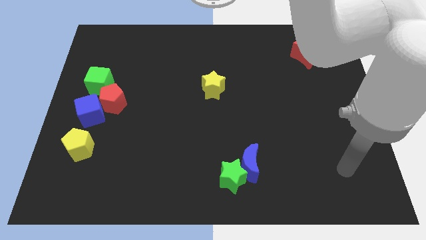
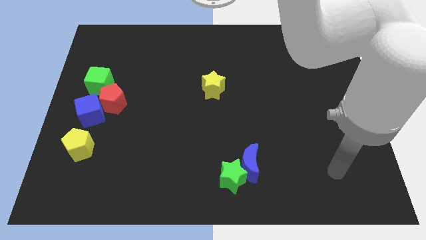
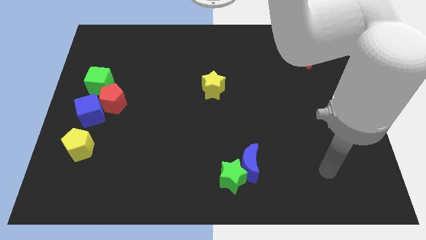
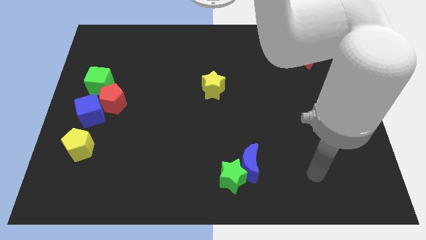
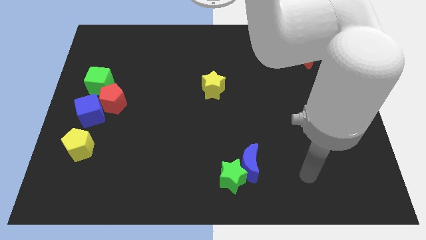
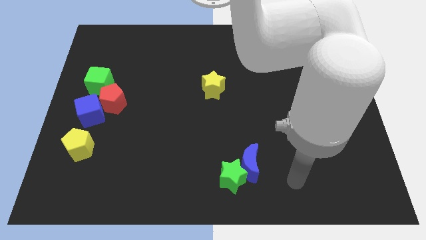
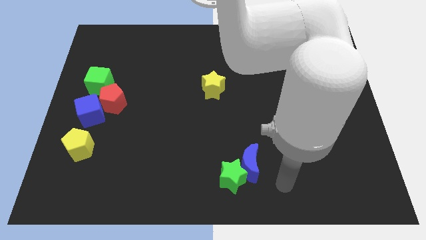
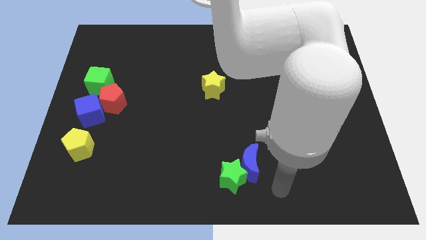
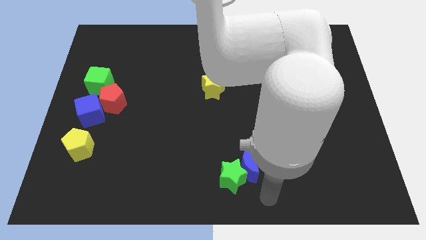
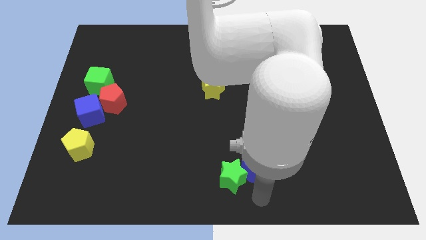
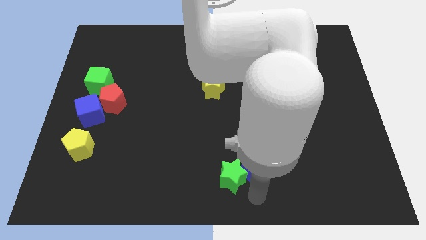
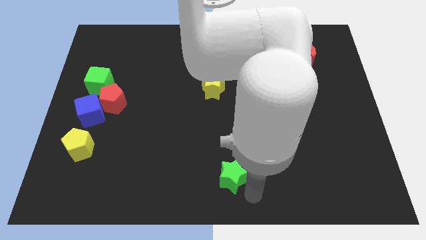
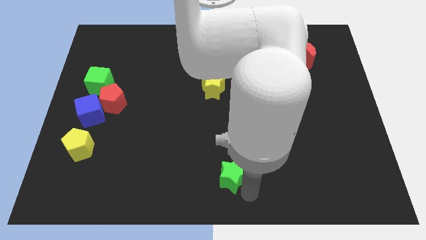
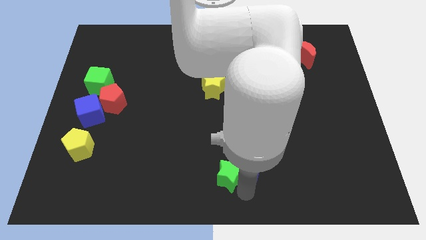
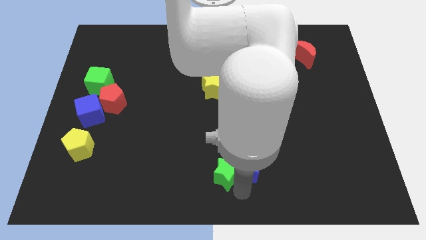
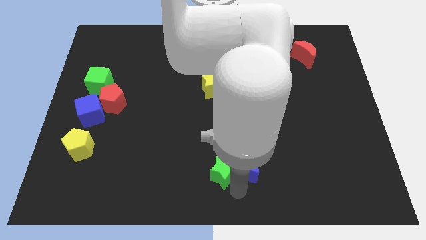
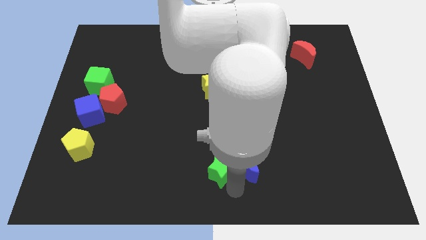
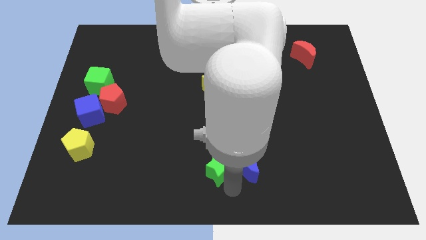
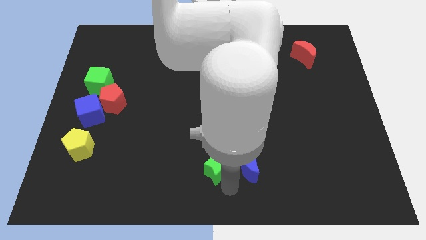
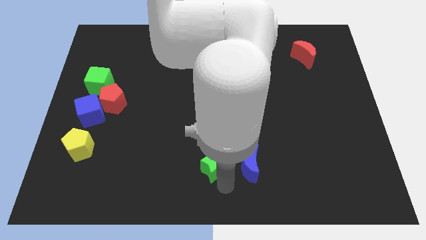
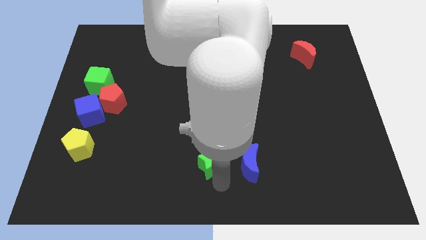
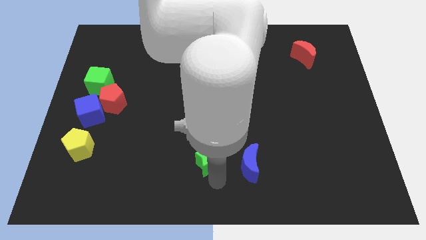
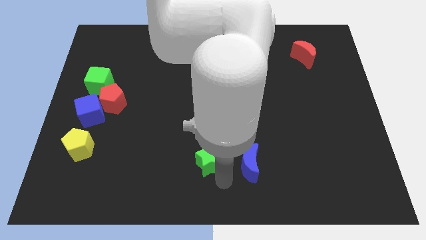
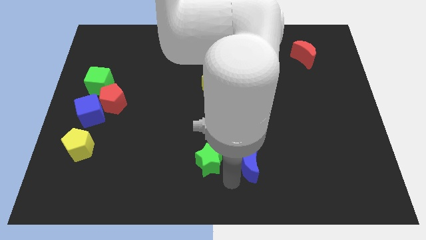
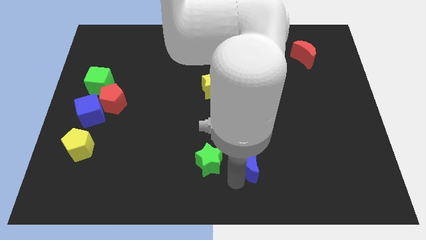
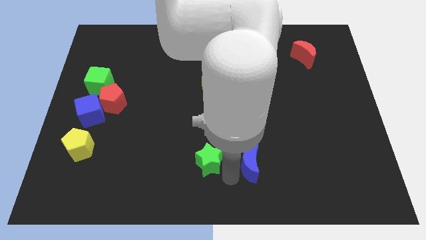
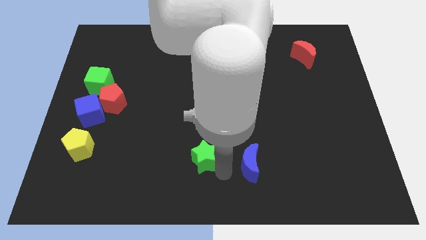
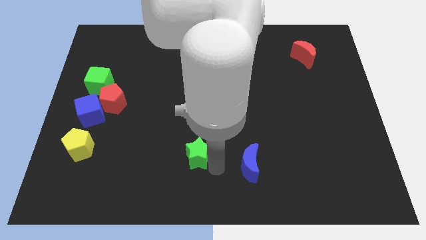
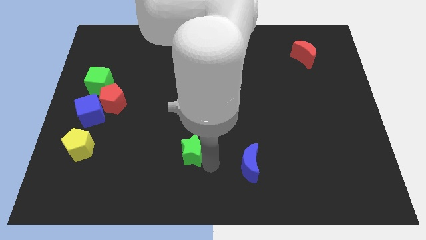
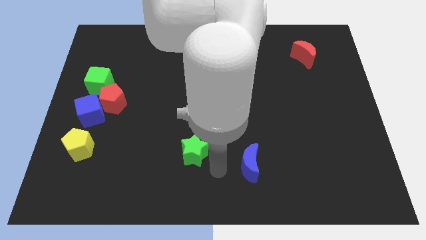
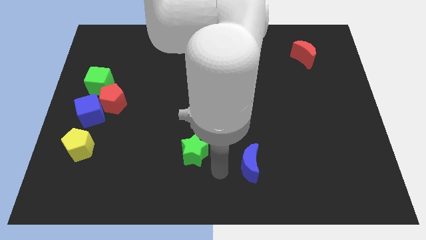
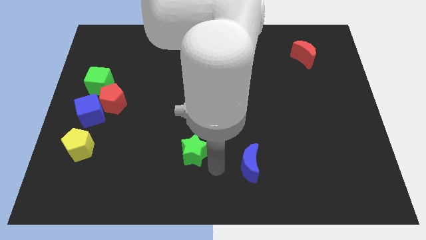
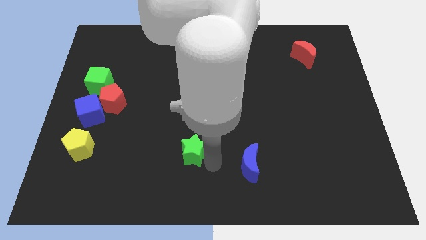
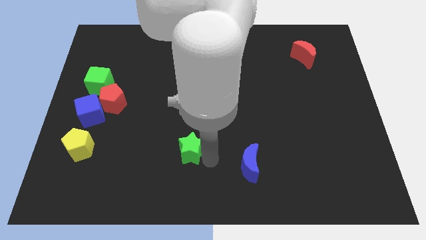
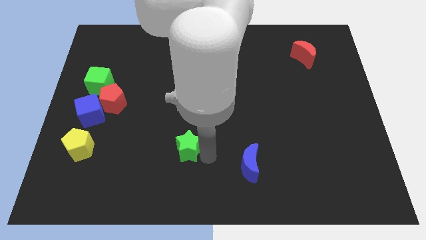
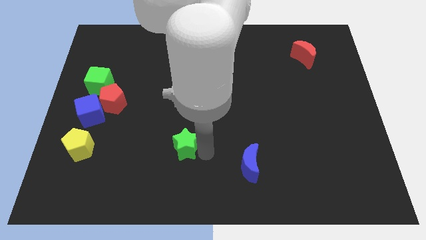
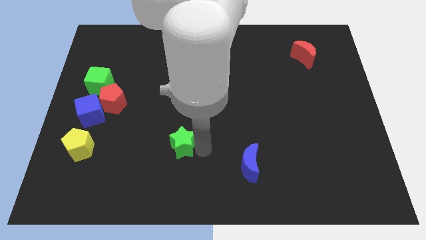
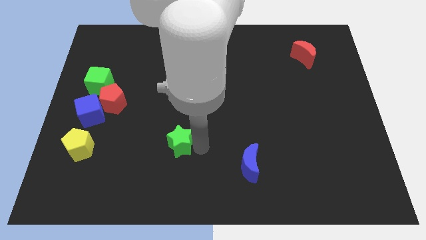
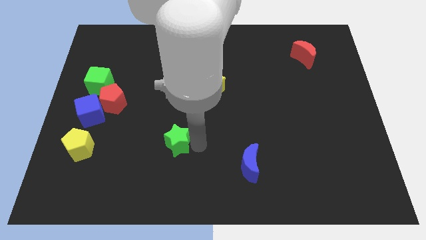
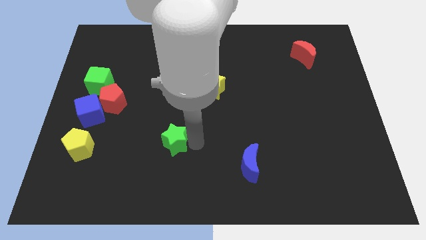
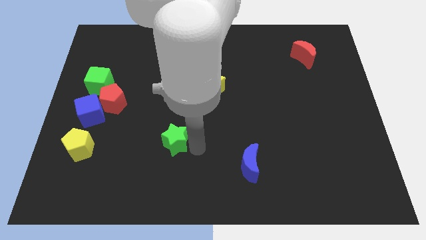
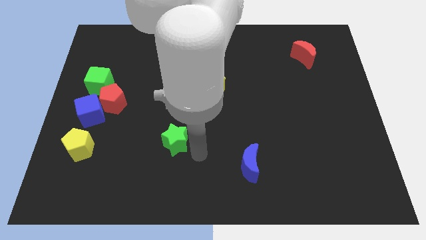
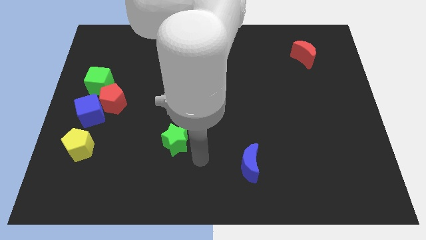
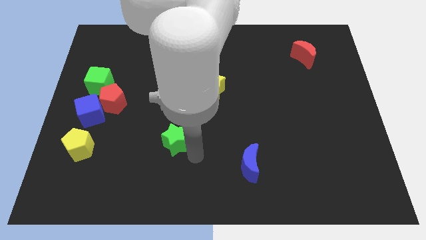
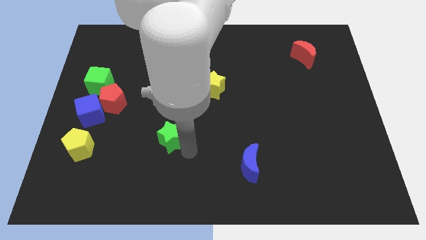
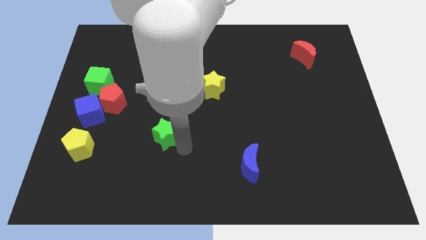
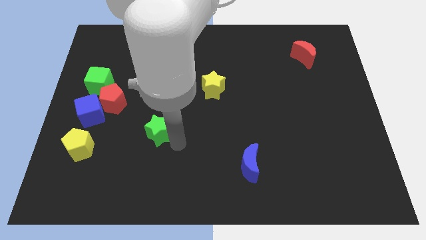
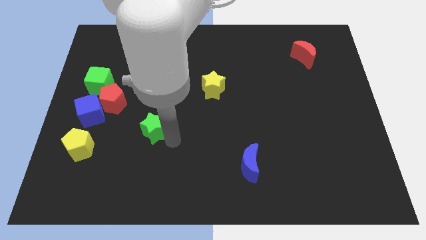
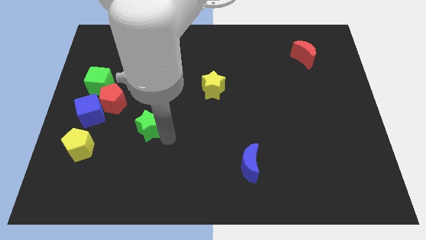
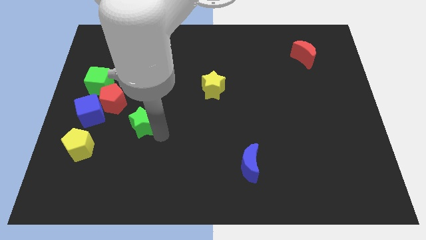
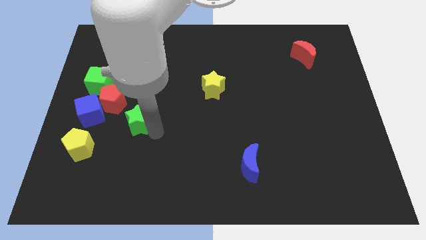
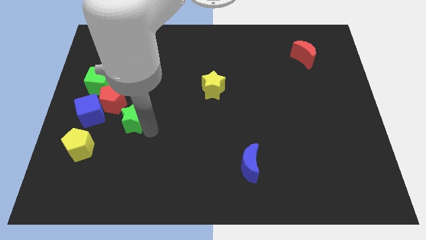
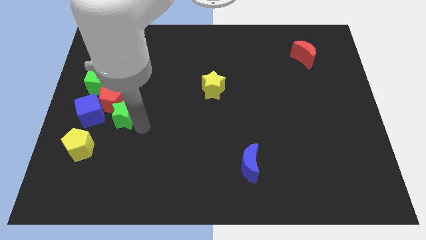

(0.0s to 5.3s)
put the green star close to the red pentagon
